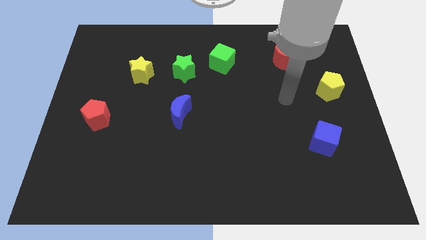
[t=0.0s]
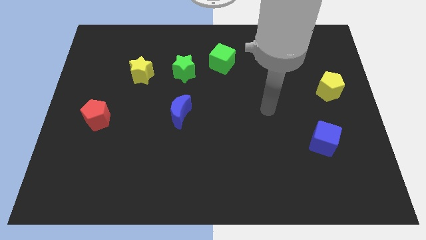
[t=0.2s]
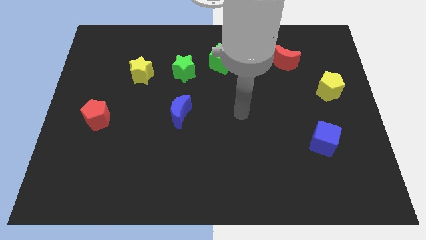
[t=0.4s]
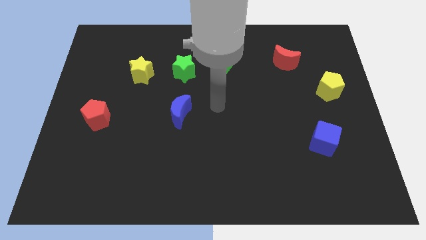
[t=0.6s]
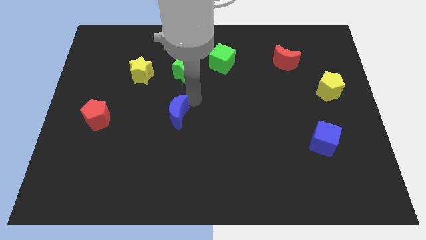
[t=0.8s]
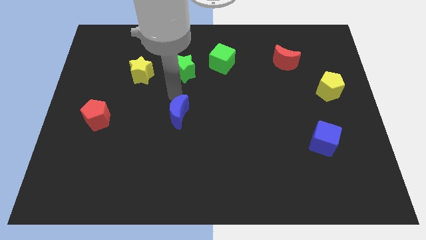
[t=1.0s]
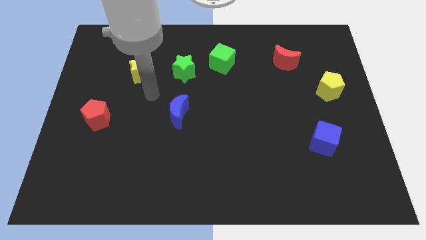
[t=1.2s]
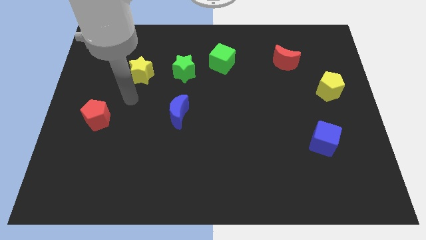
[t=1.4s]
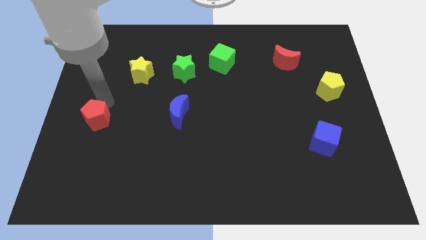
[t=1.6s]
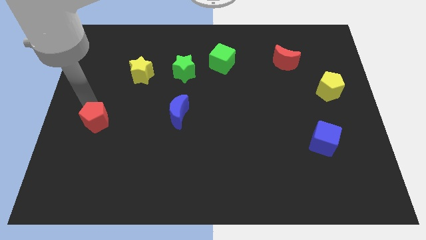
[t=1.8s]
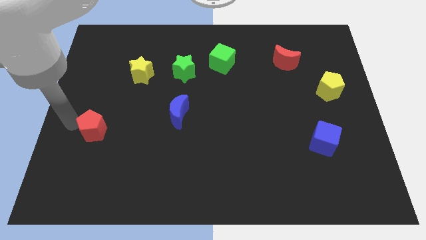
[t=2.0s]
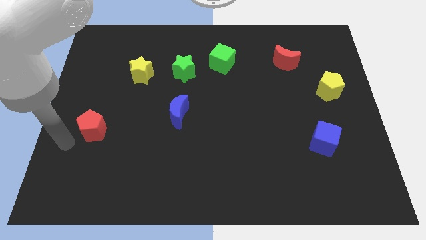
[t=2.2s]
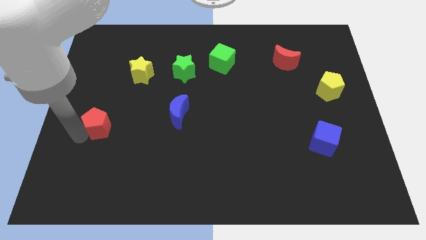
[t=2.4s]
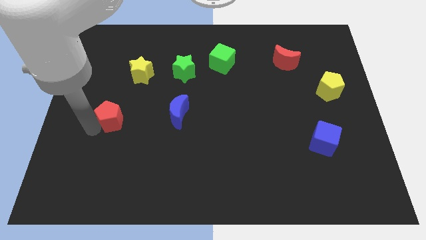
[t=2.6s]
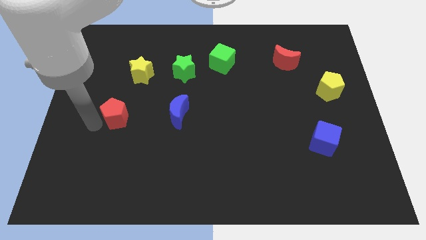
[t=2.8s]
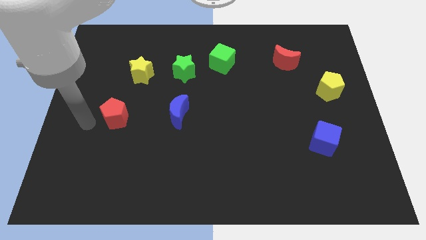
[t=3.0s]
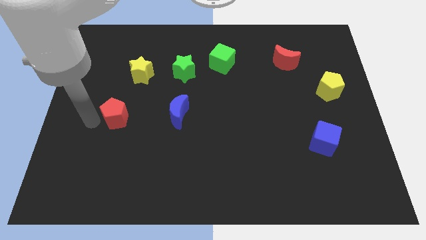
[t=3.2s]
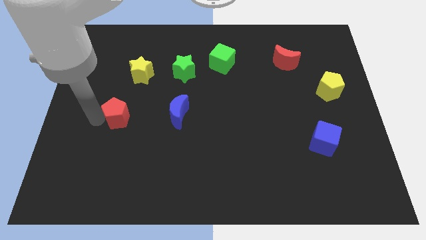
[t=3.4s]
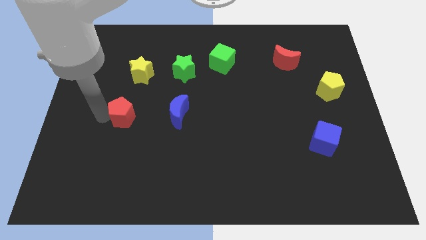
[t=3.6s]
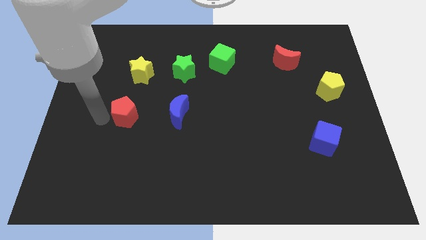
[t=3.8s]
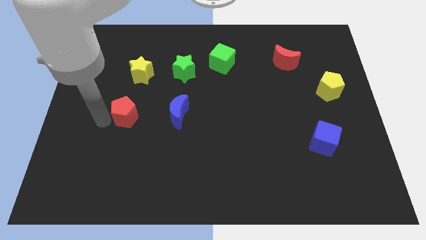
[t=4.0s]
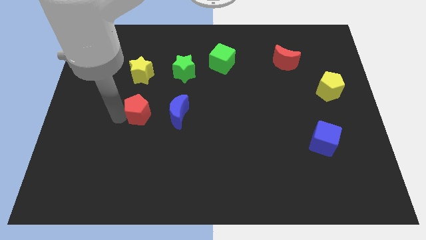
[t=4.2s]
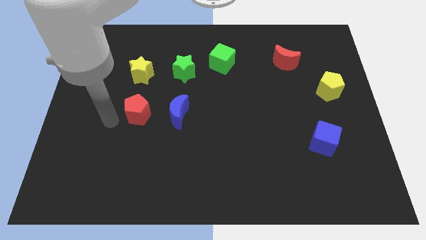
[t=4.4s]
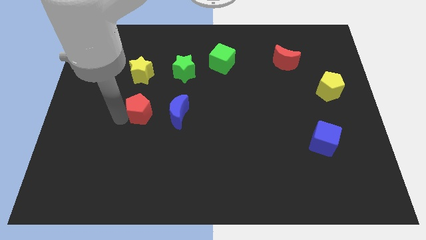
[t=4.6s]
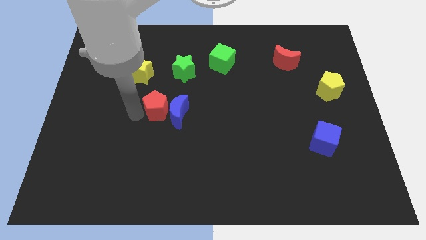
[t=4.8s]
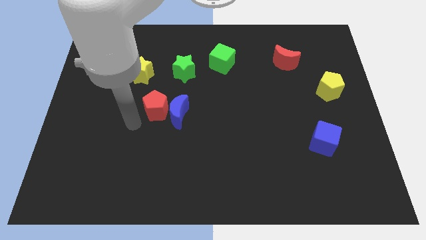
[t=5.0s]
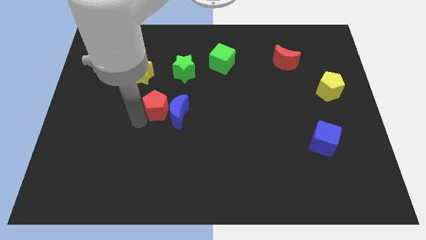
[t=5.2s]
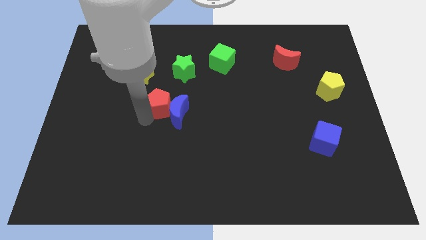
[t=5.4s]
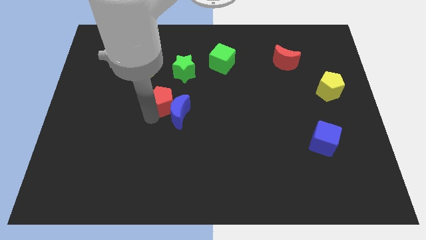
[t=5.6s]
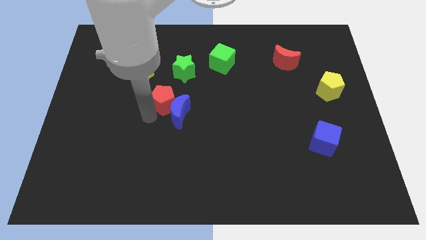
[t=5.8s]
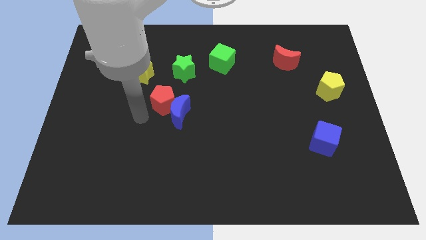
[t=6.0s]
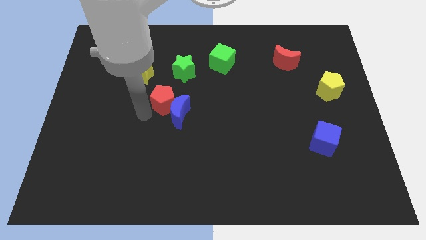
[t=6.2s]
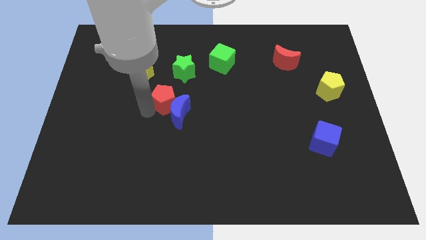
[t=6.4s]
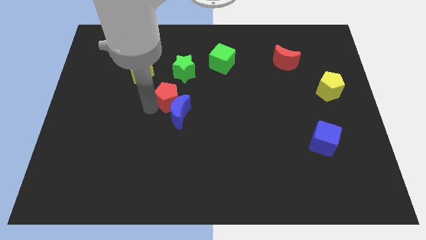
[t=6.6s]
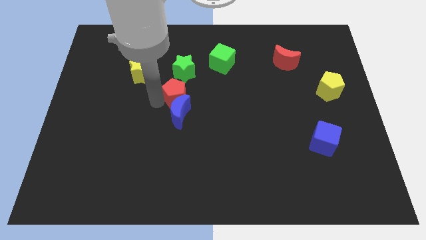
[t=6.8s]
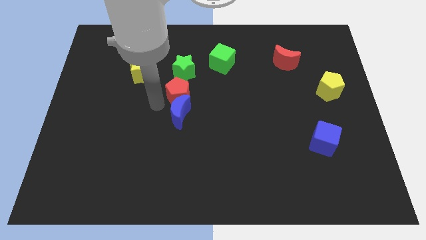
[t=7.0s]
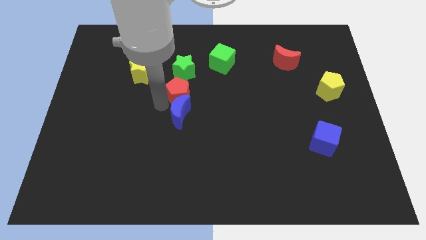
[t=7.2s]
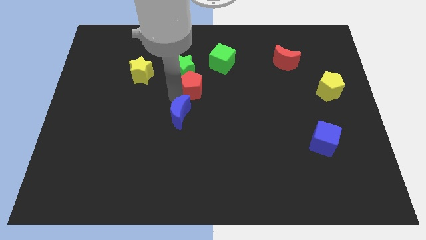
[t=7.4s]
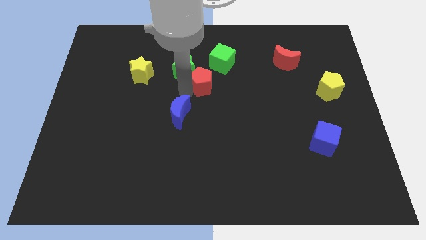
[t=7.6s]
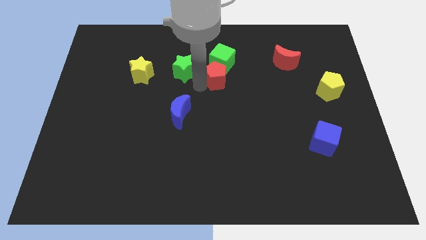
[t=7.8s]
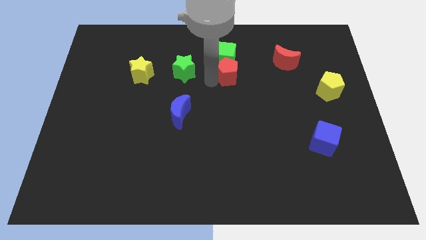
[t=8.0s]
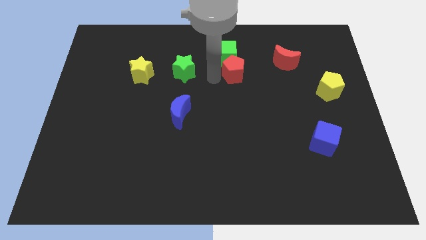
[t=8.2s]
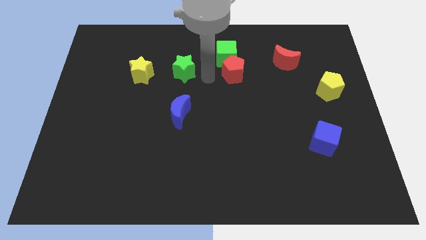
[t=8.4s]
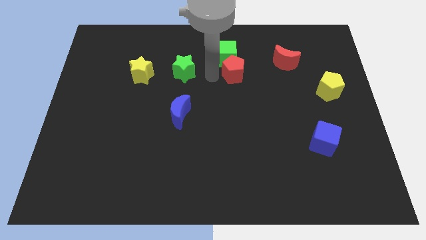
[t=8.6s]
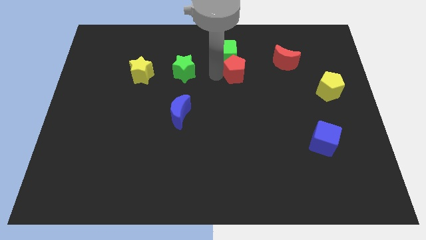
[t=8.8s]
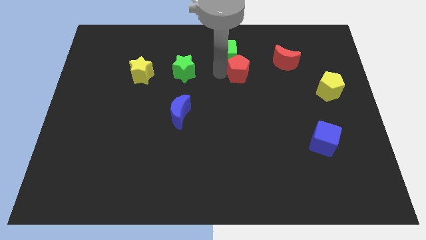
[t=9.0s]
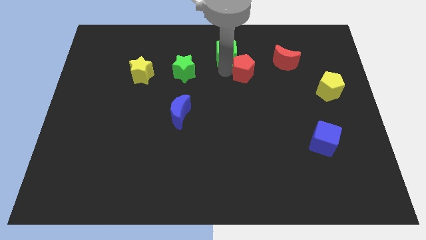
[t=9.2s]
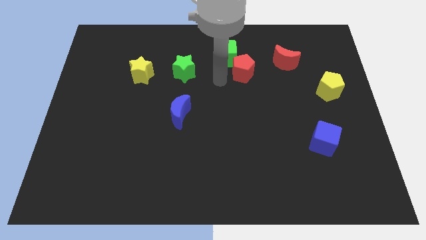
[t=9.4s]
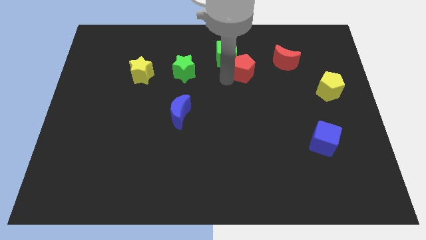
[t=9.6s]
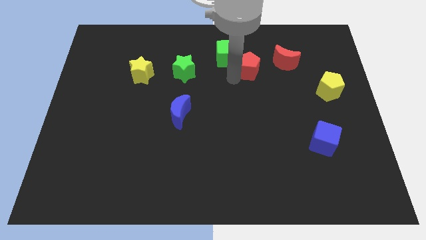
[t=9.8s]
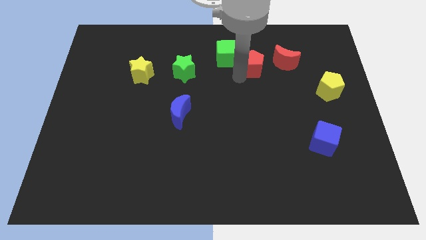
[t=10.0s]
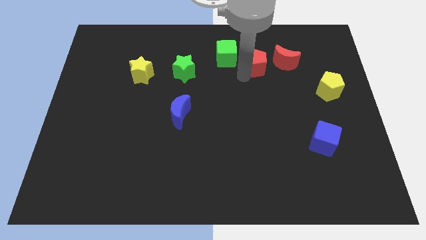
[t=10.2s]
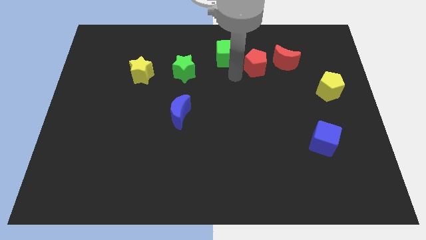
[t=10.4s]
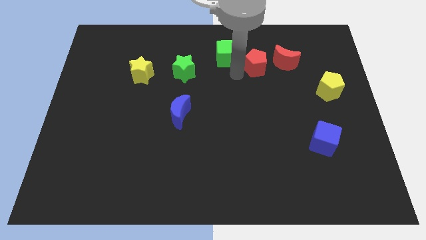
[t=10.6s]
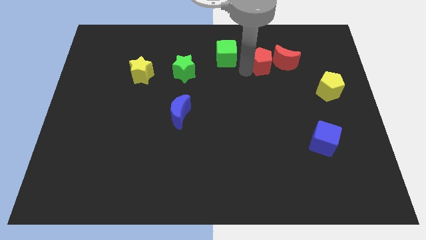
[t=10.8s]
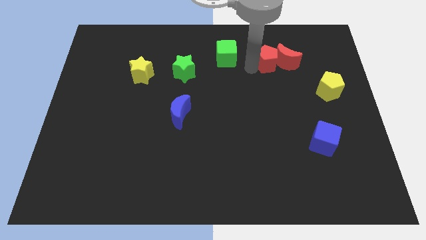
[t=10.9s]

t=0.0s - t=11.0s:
put the red pentagon next to the red moon

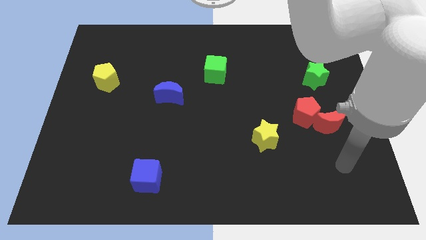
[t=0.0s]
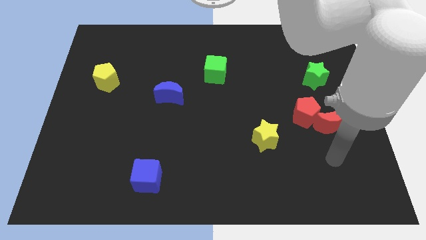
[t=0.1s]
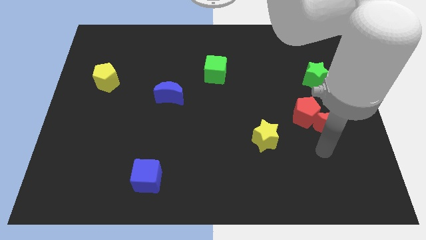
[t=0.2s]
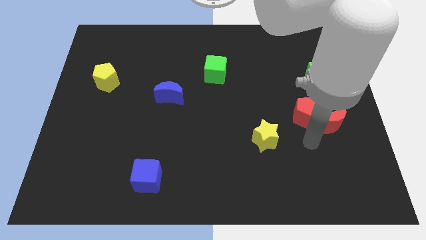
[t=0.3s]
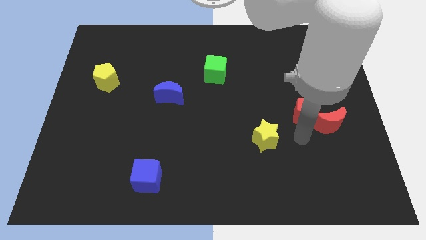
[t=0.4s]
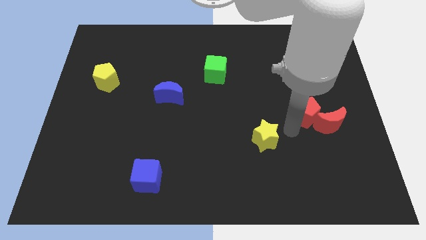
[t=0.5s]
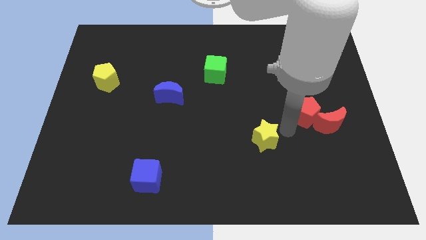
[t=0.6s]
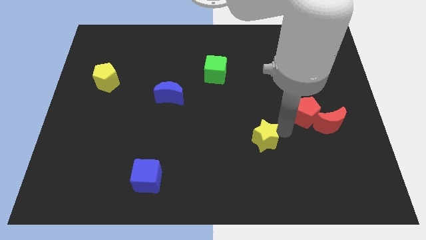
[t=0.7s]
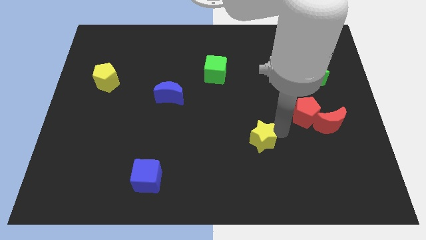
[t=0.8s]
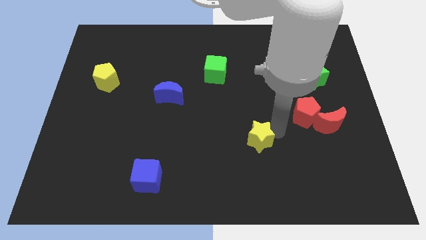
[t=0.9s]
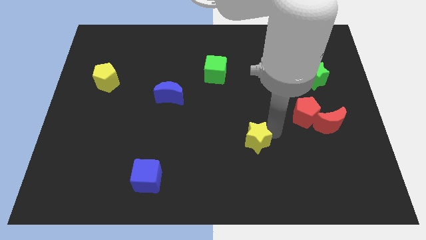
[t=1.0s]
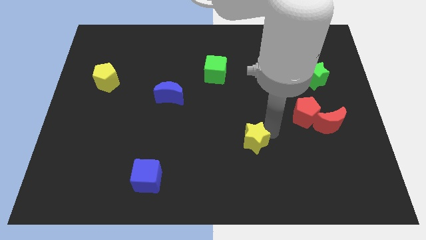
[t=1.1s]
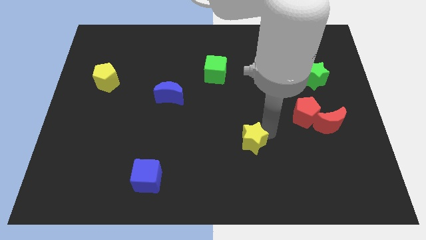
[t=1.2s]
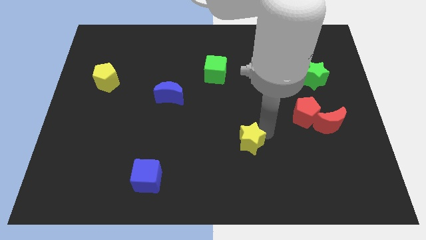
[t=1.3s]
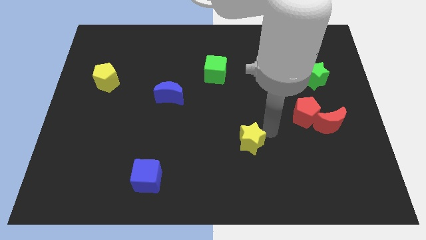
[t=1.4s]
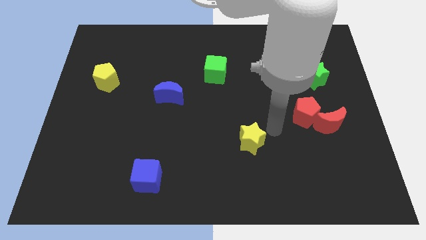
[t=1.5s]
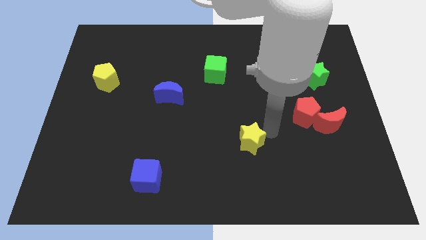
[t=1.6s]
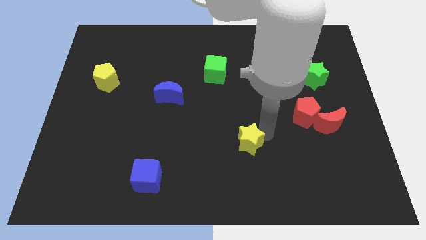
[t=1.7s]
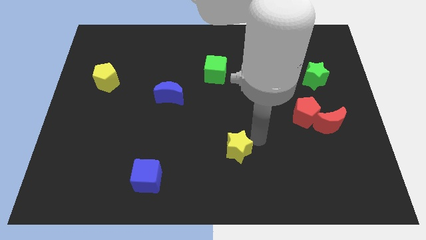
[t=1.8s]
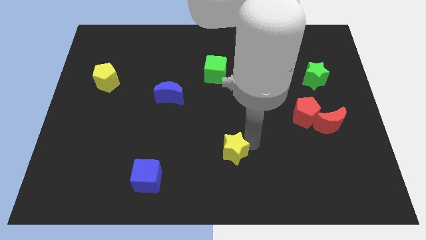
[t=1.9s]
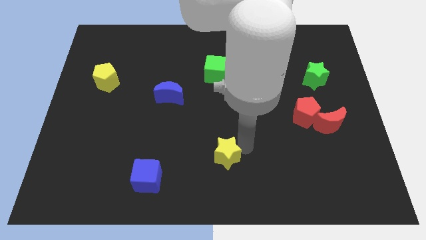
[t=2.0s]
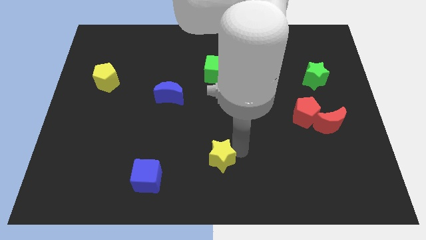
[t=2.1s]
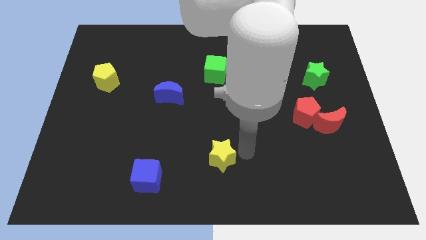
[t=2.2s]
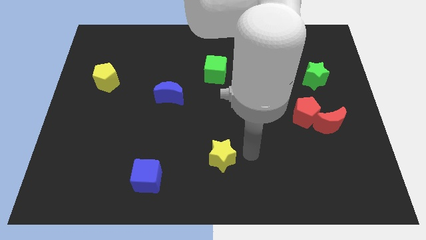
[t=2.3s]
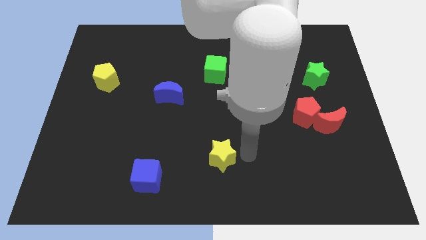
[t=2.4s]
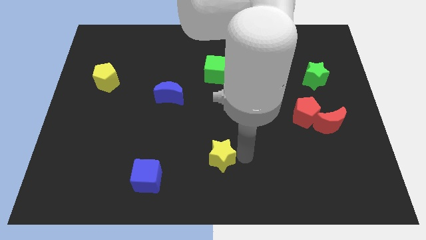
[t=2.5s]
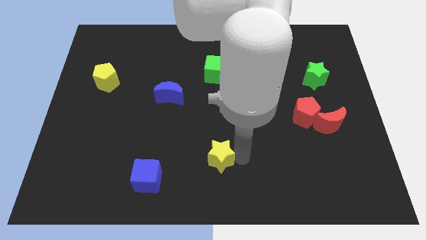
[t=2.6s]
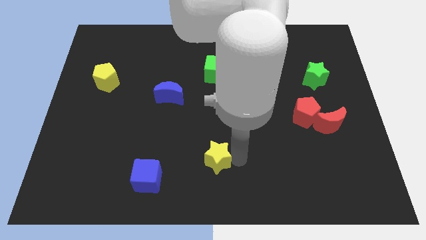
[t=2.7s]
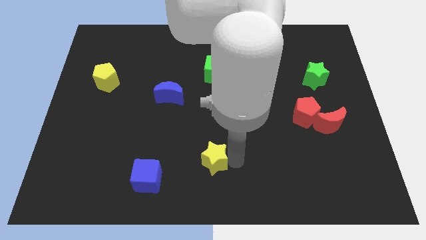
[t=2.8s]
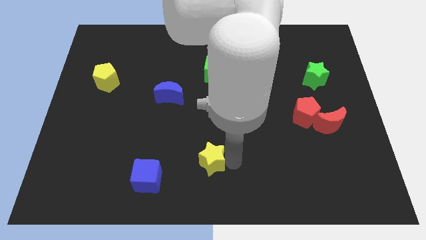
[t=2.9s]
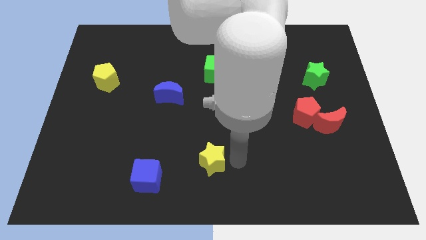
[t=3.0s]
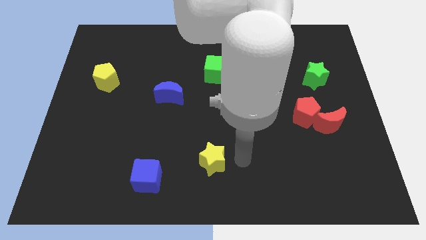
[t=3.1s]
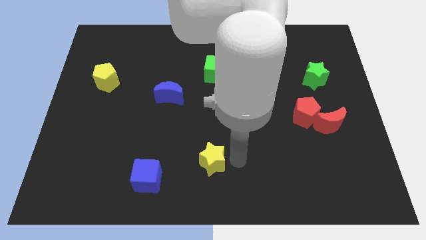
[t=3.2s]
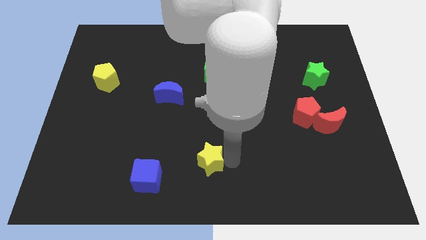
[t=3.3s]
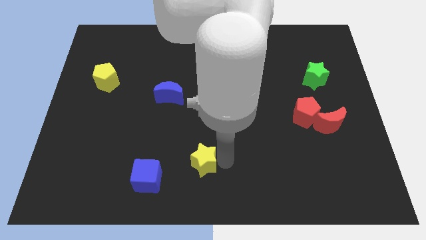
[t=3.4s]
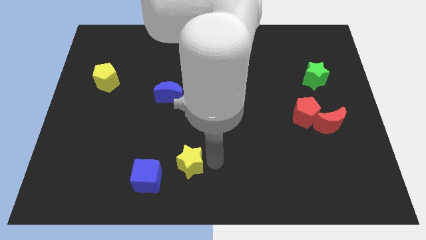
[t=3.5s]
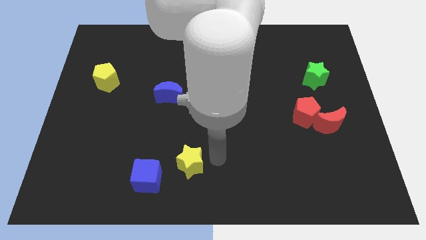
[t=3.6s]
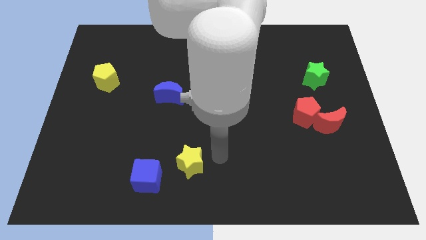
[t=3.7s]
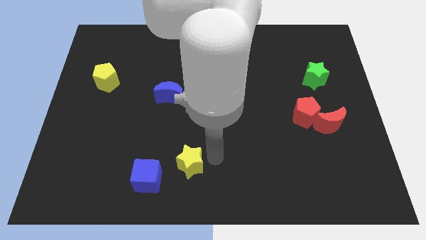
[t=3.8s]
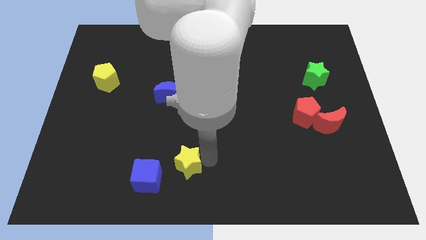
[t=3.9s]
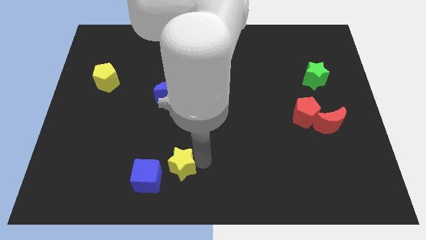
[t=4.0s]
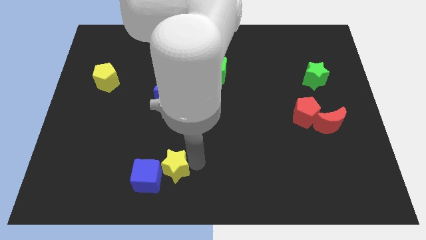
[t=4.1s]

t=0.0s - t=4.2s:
push the yellow star to the blue cube
